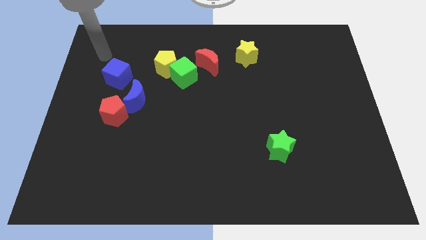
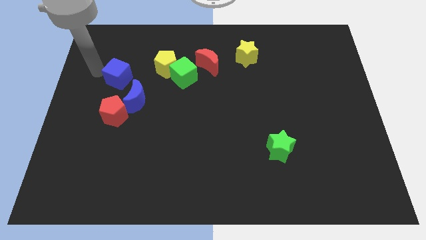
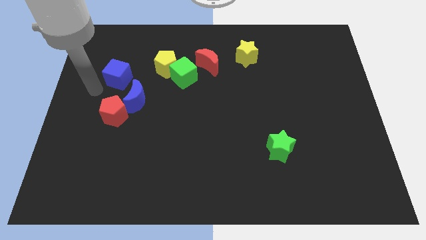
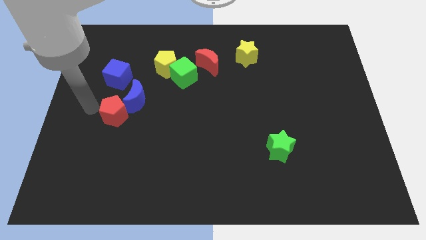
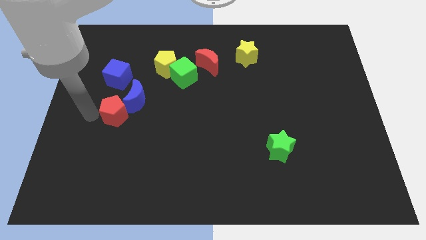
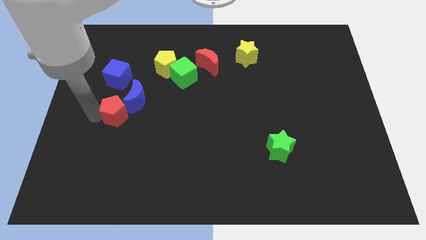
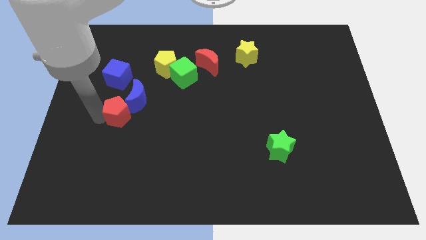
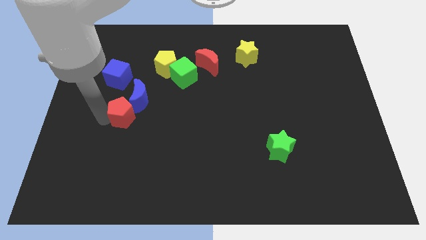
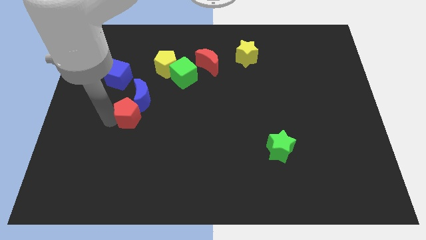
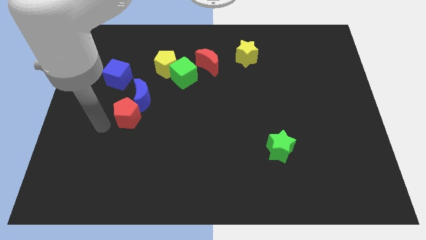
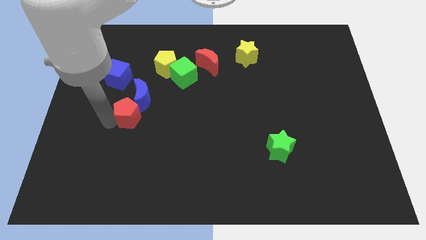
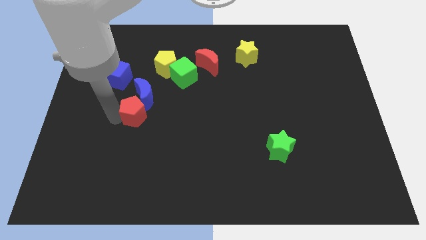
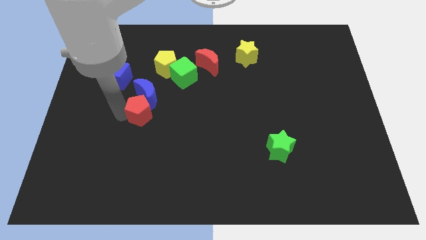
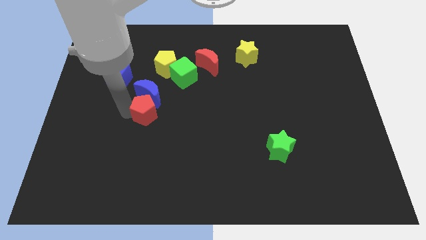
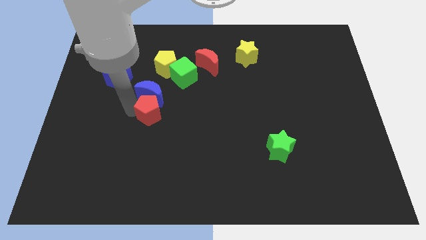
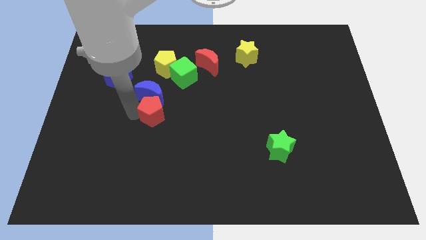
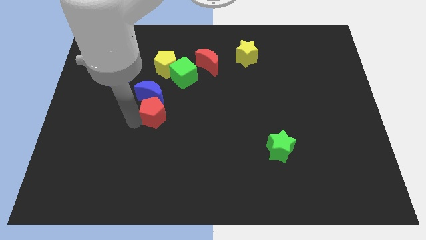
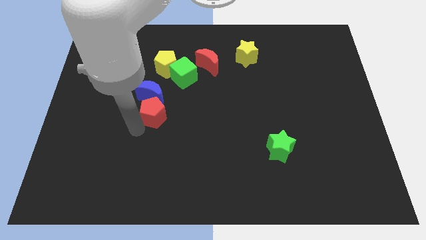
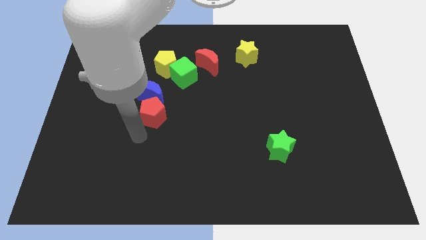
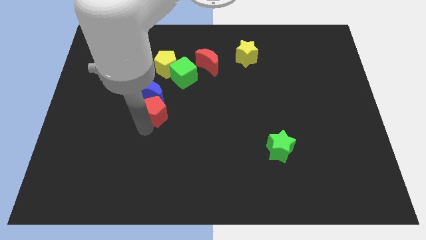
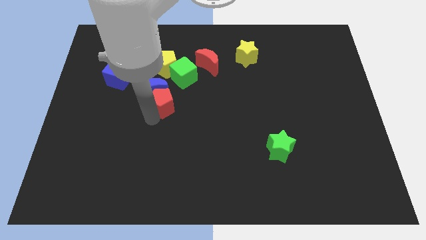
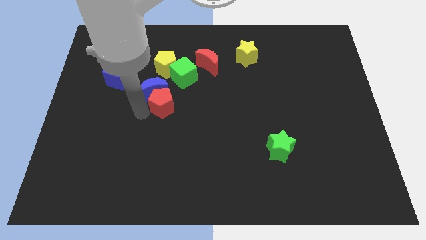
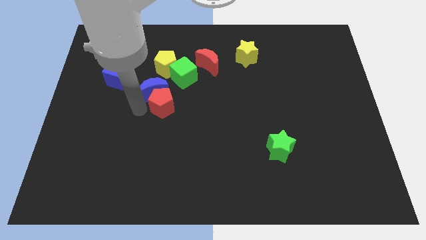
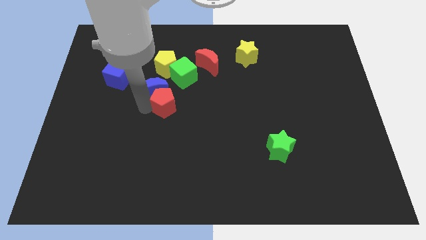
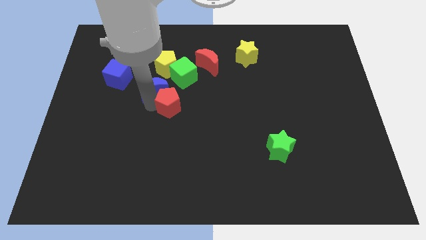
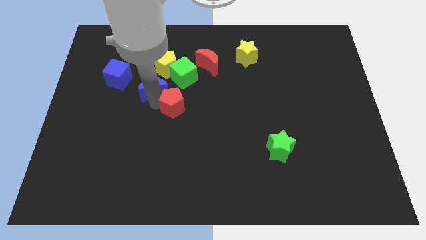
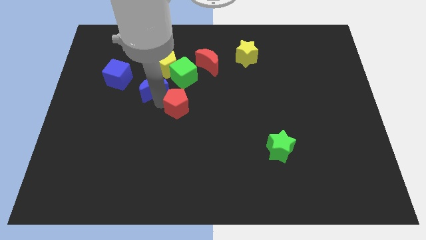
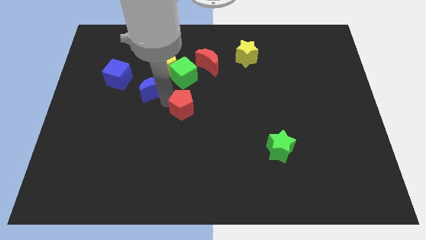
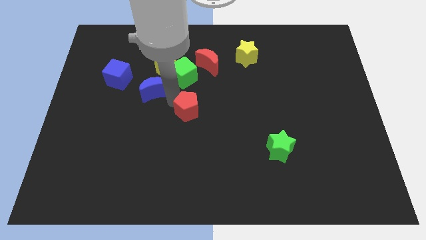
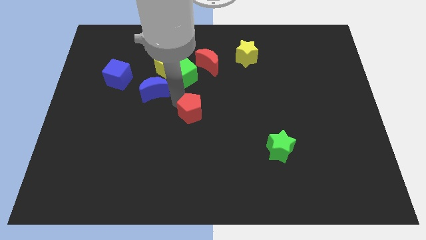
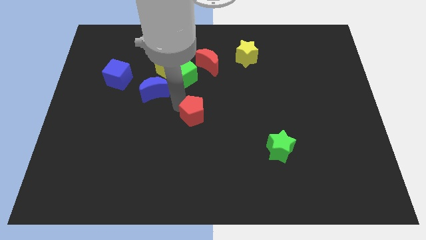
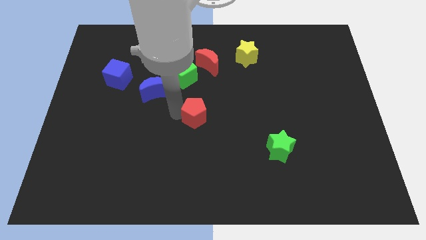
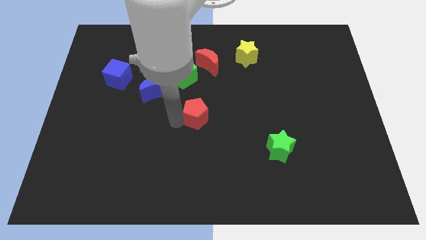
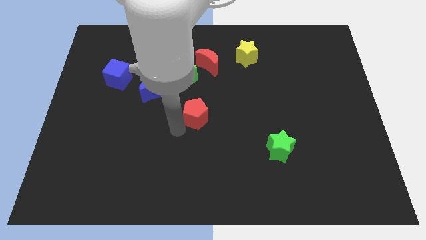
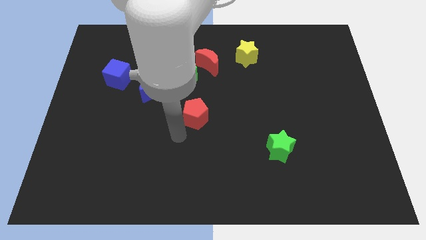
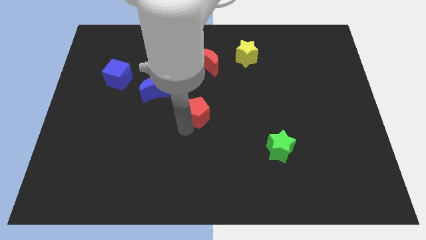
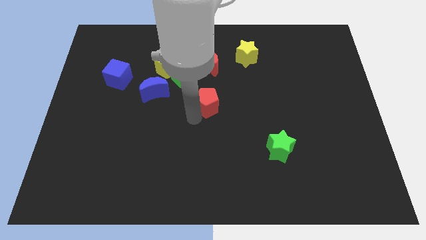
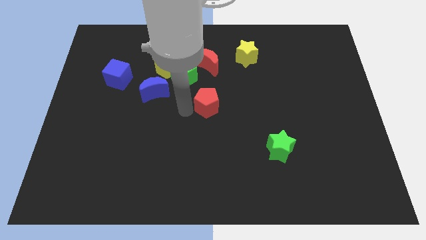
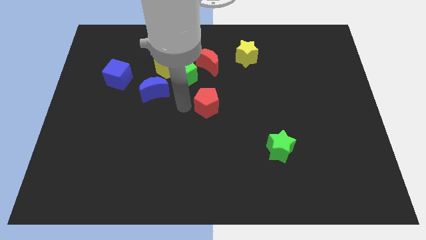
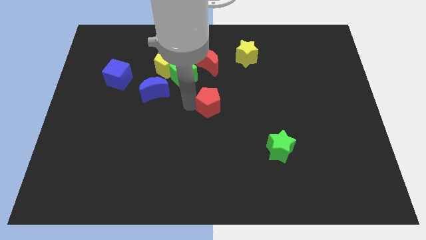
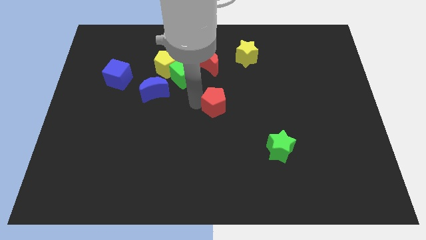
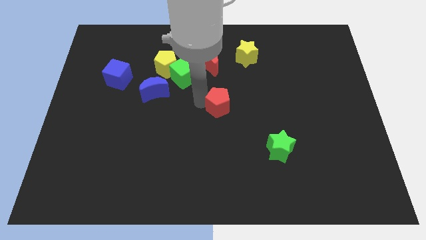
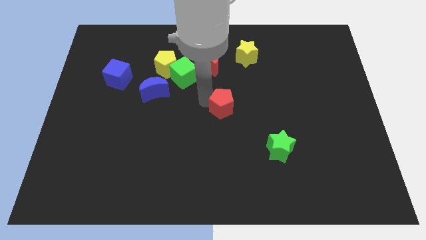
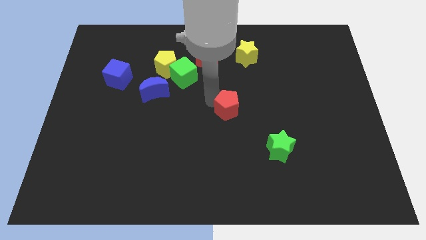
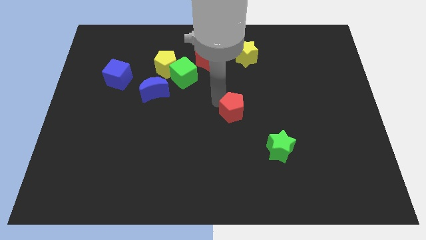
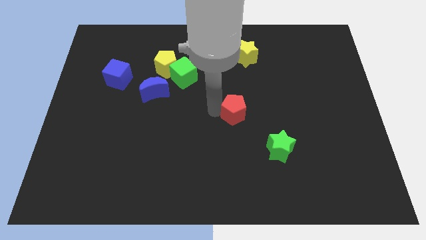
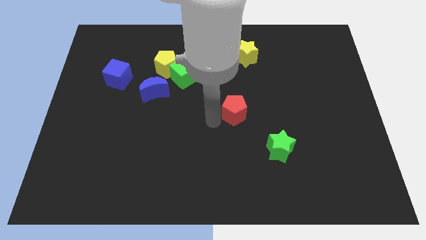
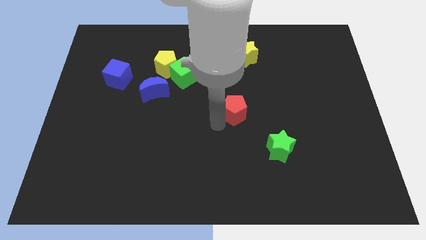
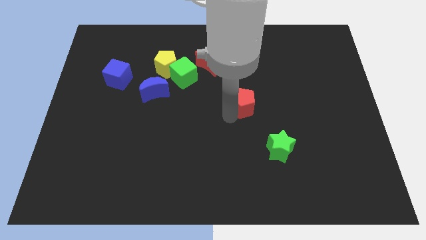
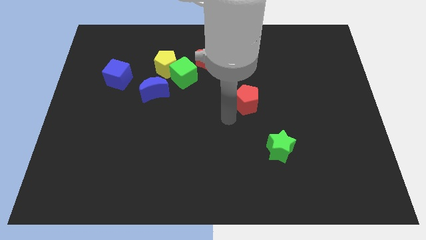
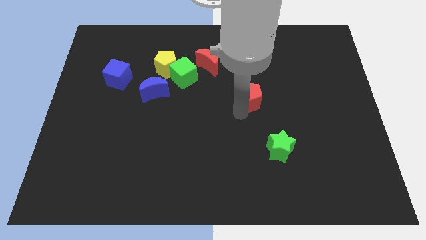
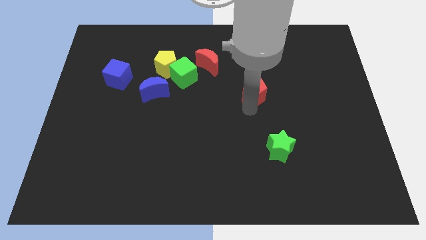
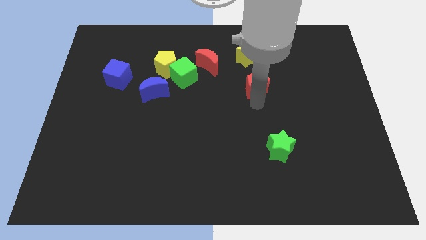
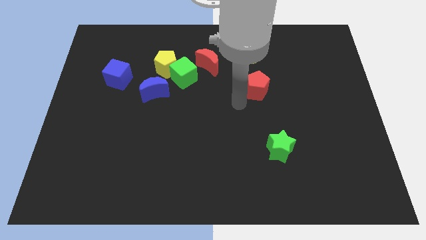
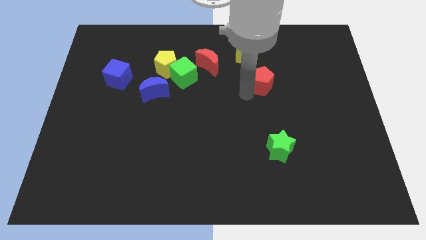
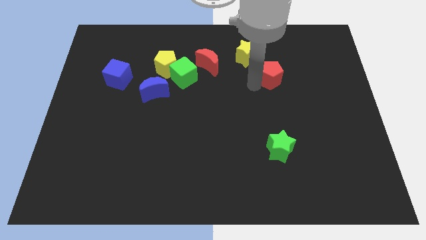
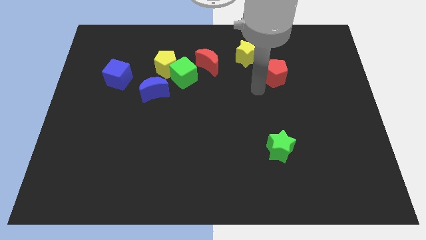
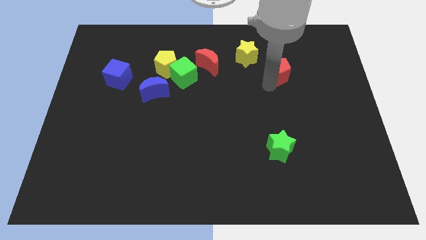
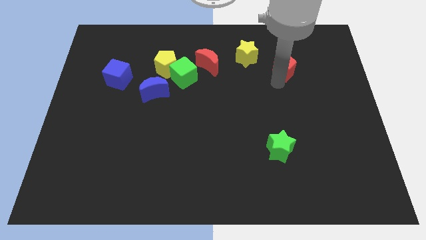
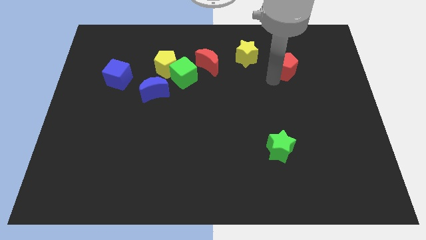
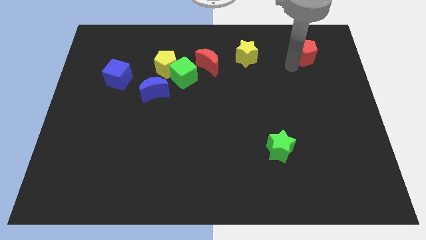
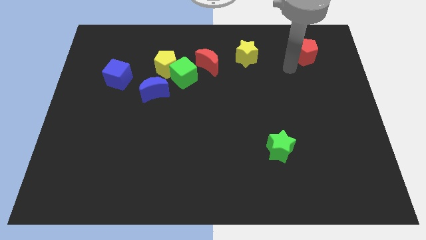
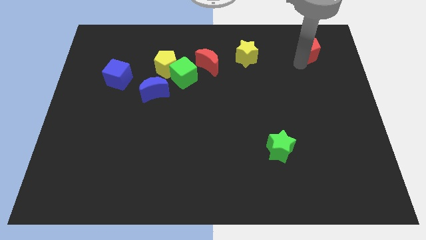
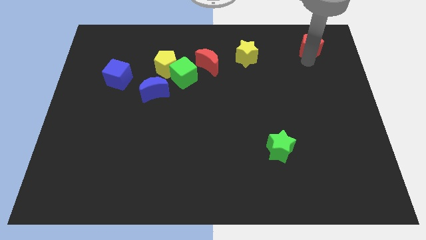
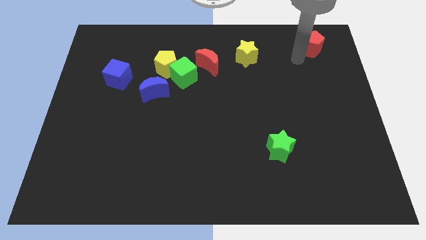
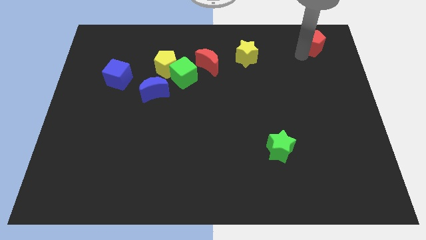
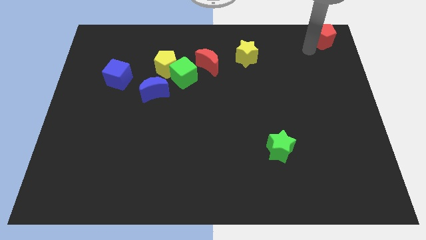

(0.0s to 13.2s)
move the red pentagon to the top right of the board
